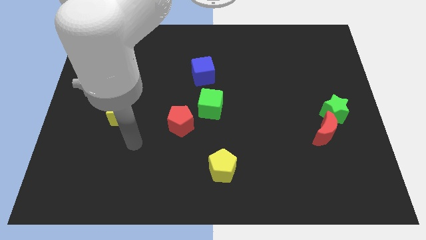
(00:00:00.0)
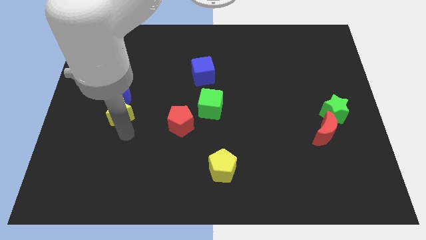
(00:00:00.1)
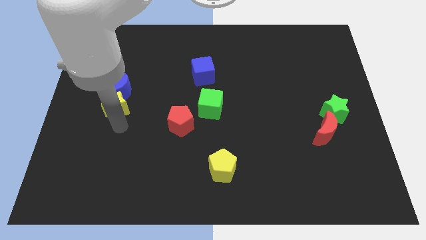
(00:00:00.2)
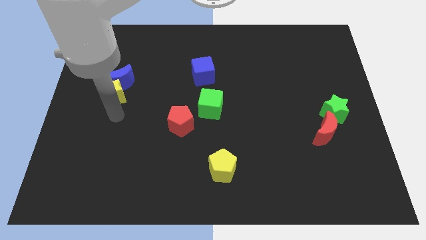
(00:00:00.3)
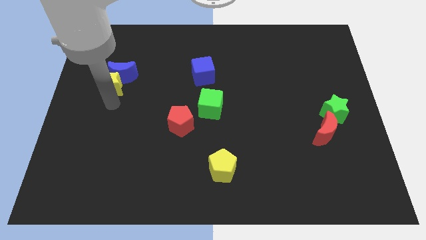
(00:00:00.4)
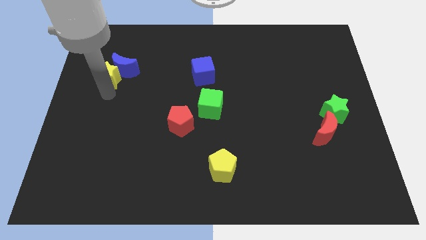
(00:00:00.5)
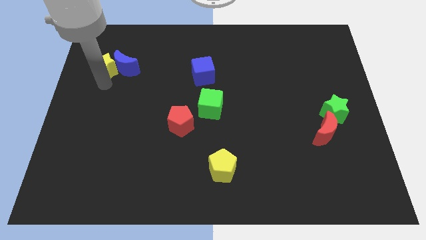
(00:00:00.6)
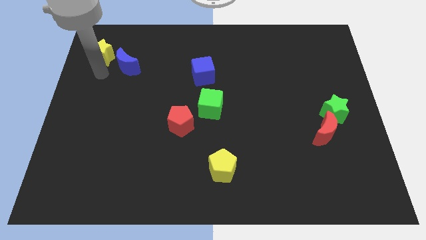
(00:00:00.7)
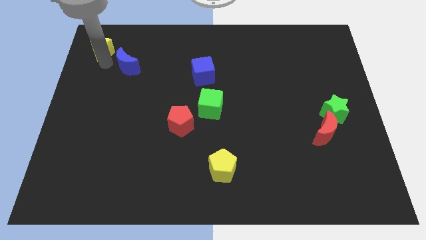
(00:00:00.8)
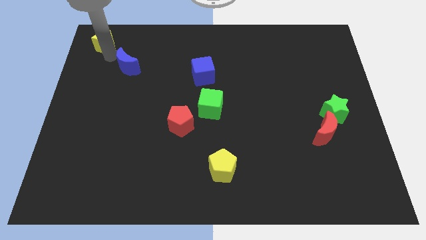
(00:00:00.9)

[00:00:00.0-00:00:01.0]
pull the blue moon apart from the yellow star

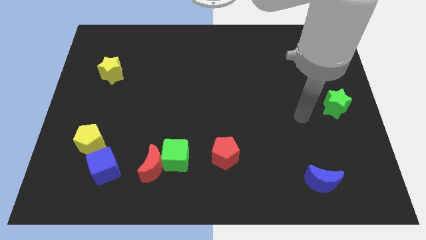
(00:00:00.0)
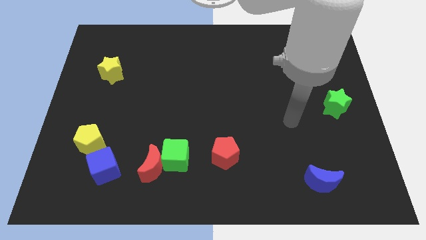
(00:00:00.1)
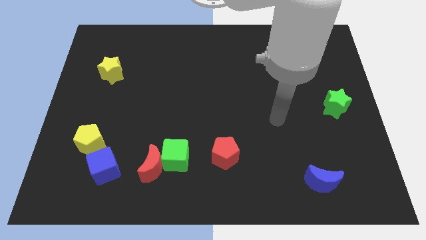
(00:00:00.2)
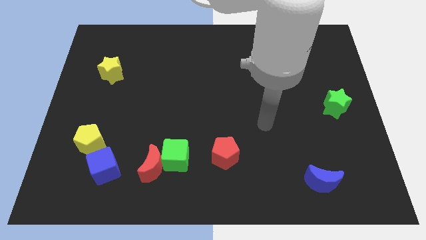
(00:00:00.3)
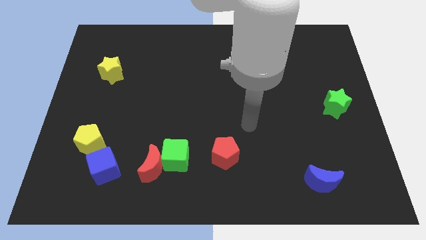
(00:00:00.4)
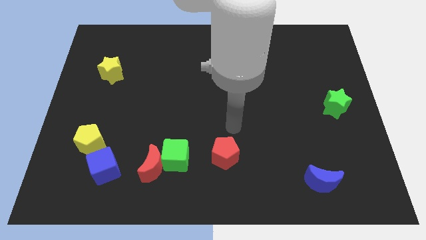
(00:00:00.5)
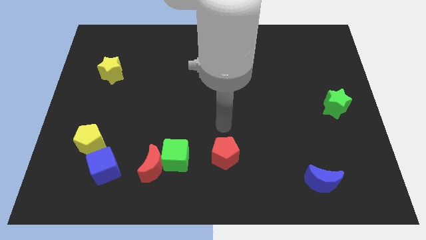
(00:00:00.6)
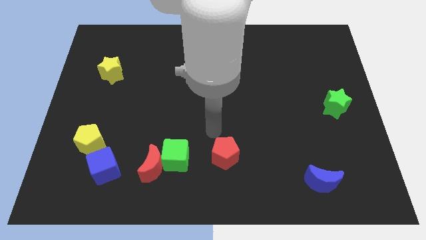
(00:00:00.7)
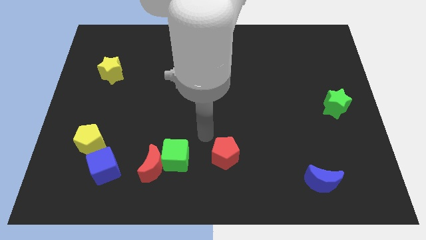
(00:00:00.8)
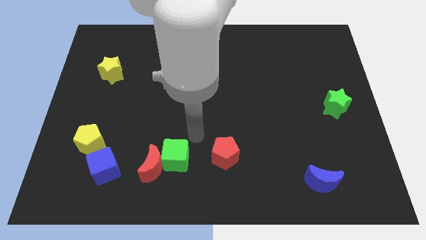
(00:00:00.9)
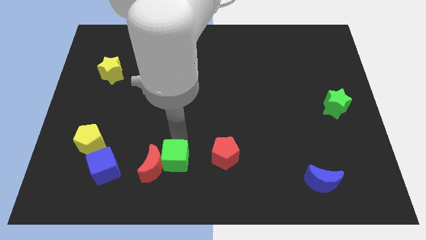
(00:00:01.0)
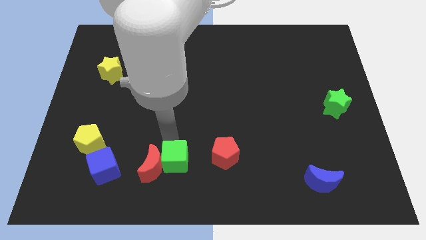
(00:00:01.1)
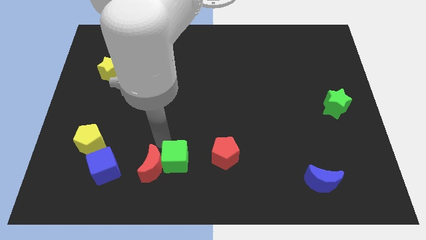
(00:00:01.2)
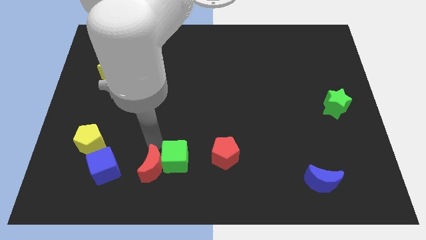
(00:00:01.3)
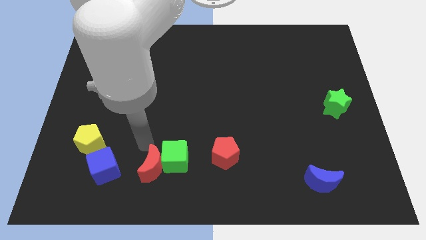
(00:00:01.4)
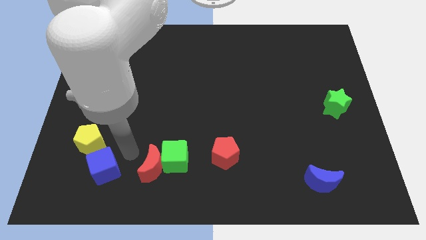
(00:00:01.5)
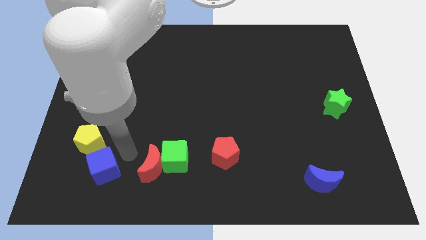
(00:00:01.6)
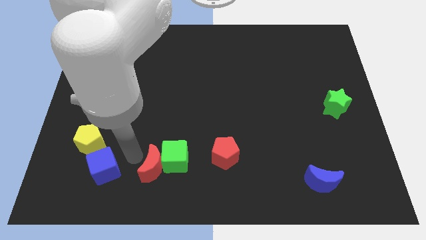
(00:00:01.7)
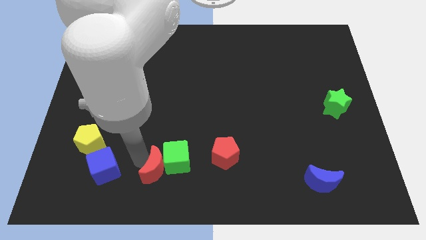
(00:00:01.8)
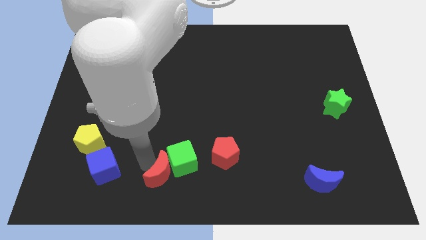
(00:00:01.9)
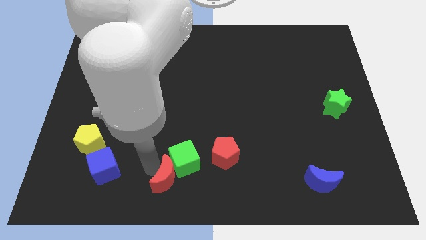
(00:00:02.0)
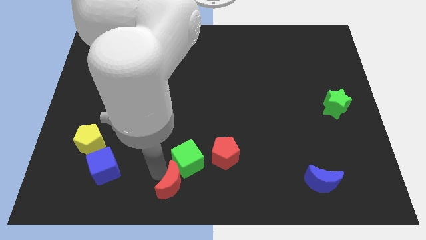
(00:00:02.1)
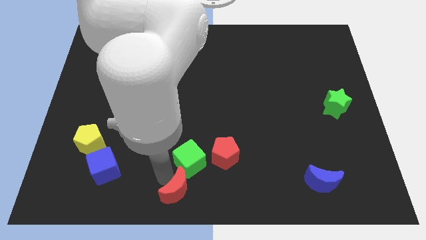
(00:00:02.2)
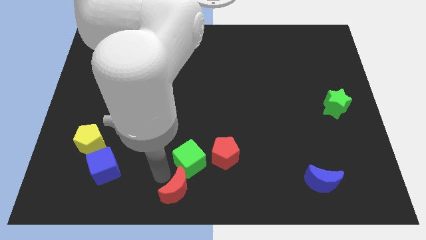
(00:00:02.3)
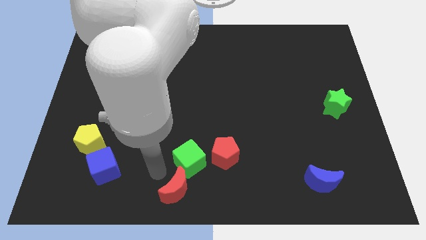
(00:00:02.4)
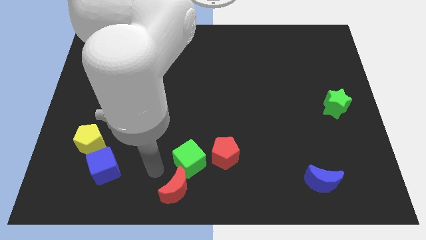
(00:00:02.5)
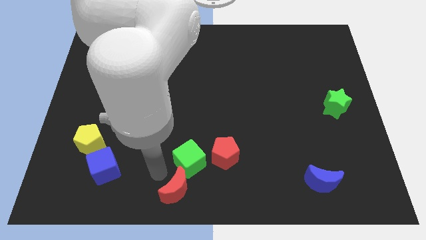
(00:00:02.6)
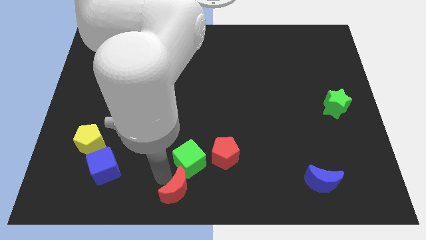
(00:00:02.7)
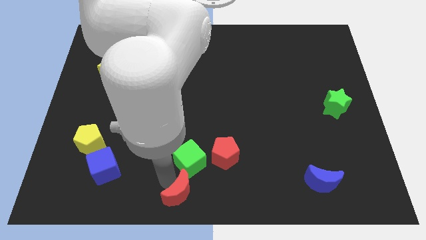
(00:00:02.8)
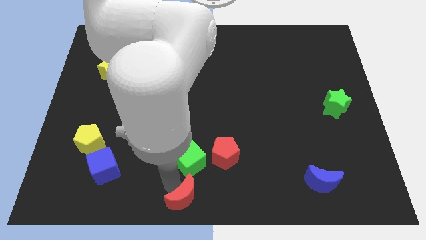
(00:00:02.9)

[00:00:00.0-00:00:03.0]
separate the red moon from the green cube and blue cube

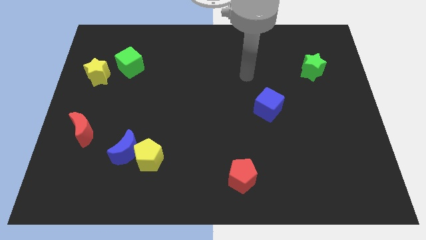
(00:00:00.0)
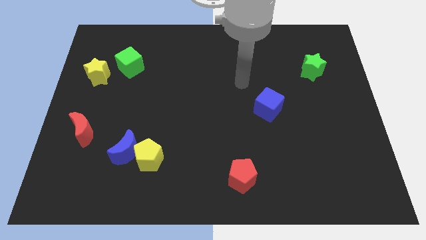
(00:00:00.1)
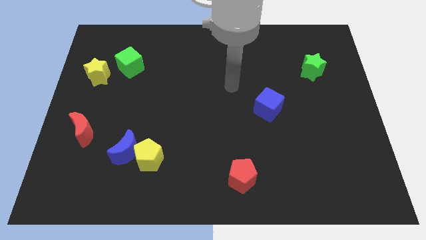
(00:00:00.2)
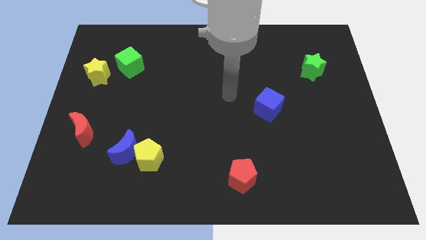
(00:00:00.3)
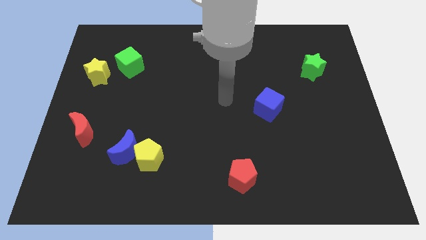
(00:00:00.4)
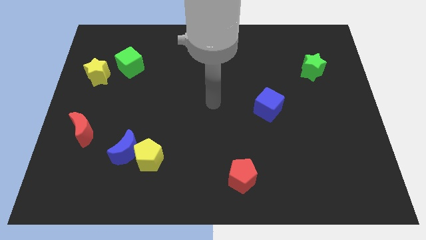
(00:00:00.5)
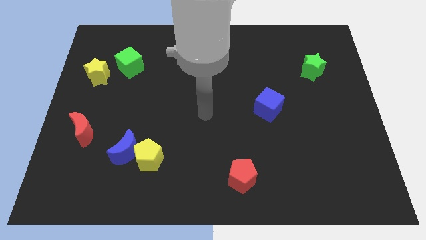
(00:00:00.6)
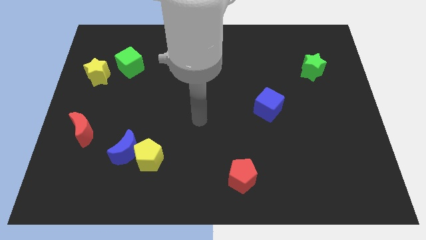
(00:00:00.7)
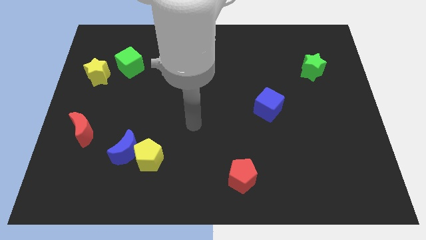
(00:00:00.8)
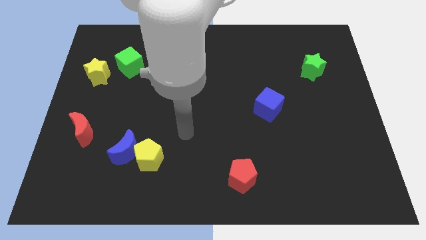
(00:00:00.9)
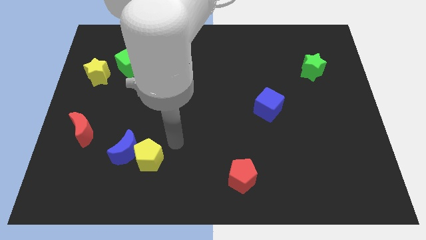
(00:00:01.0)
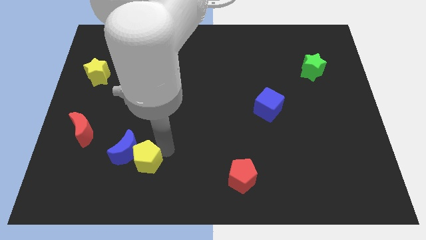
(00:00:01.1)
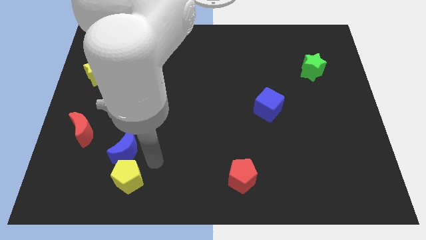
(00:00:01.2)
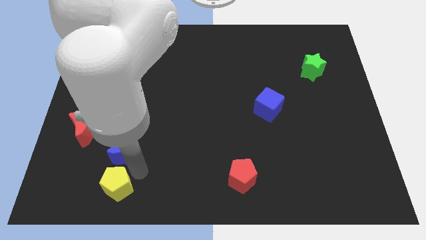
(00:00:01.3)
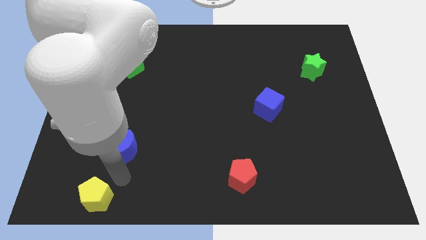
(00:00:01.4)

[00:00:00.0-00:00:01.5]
separate the blue moon from the yellow pentagon

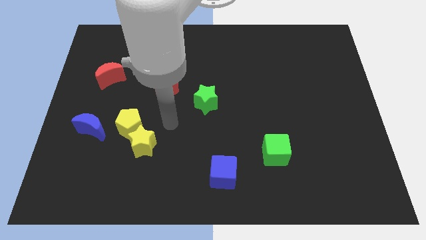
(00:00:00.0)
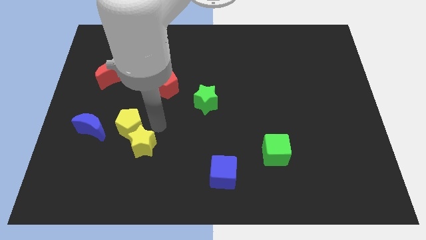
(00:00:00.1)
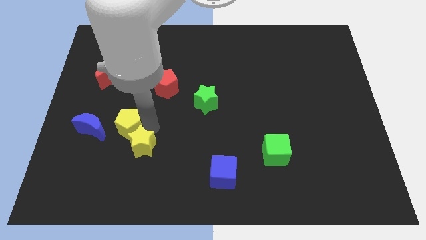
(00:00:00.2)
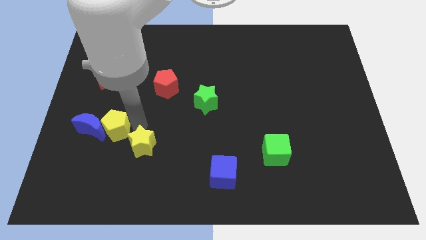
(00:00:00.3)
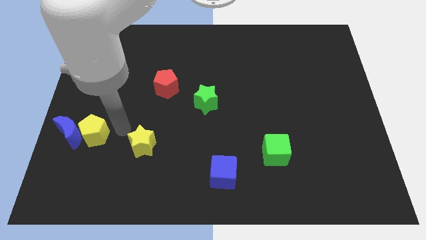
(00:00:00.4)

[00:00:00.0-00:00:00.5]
separate the yellow star from the yellow pentagon

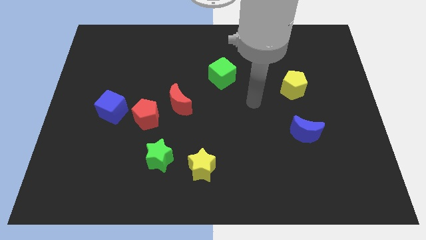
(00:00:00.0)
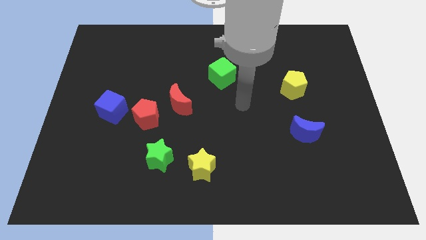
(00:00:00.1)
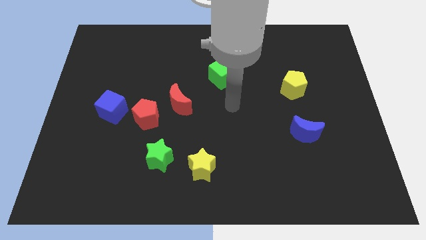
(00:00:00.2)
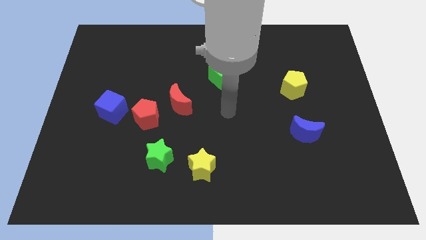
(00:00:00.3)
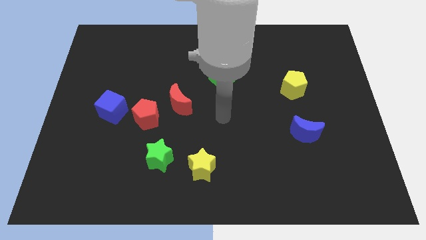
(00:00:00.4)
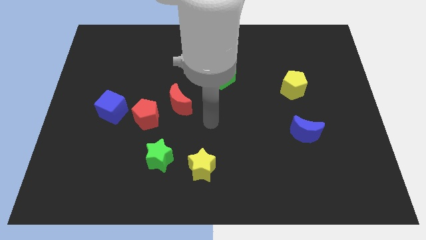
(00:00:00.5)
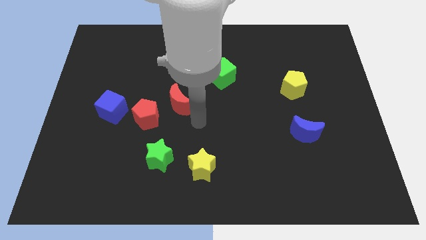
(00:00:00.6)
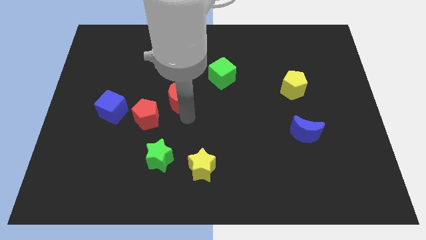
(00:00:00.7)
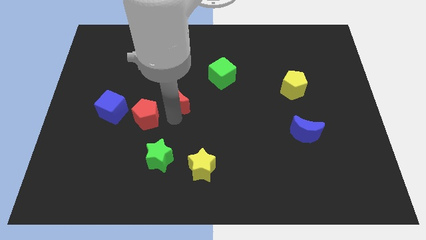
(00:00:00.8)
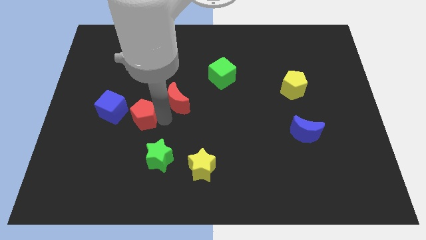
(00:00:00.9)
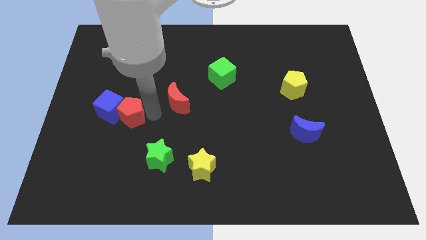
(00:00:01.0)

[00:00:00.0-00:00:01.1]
pull the red moon apart from the red pentagon

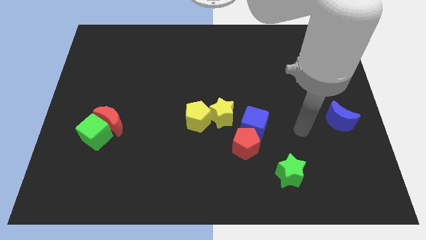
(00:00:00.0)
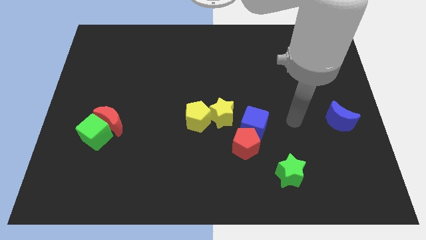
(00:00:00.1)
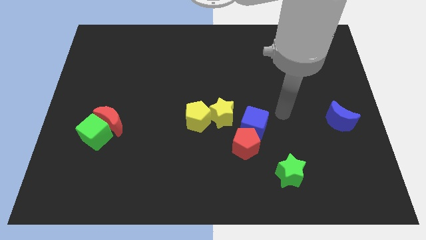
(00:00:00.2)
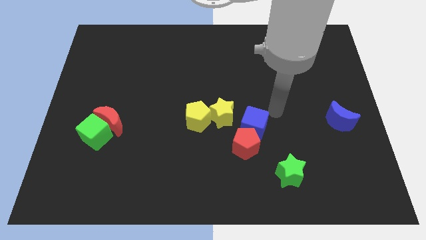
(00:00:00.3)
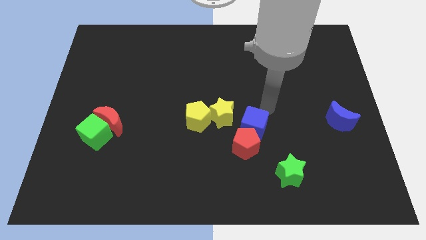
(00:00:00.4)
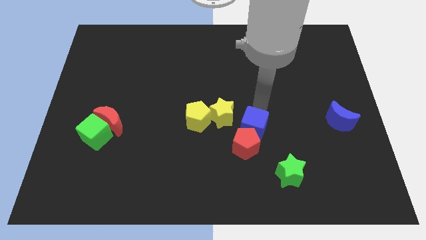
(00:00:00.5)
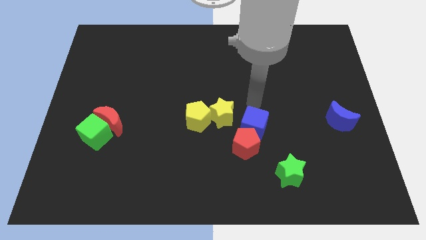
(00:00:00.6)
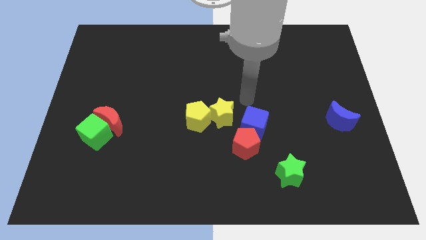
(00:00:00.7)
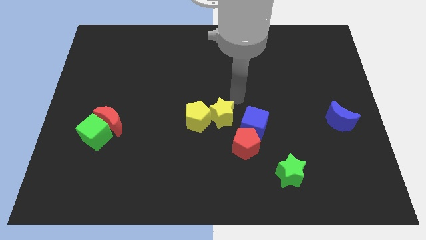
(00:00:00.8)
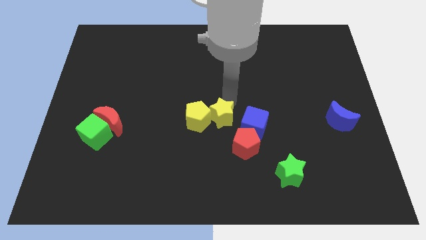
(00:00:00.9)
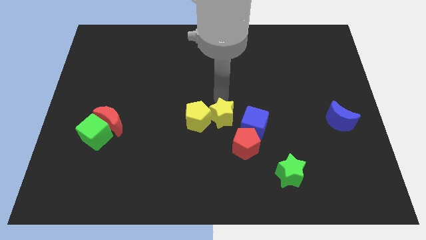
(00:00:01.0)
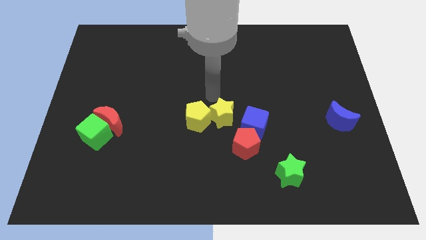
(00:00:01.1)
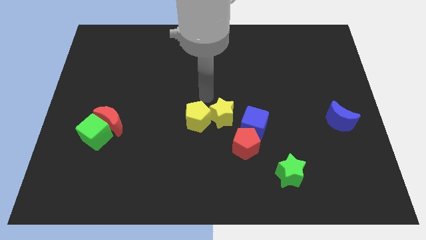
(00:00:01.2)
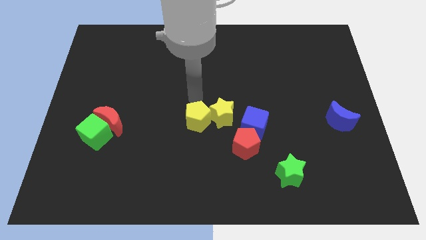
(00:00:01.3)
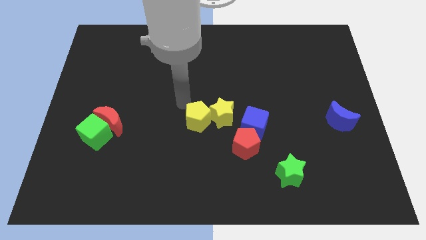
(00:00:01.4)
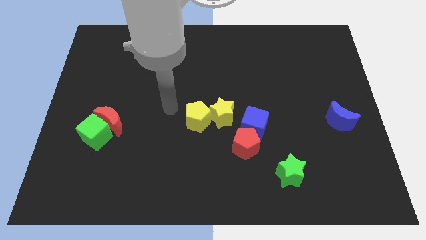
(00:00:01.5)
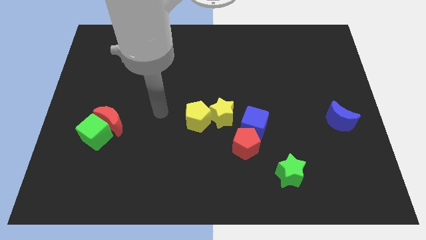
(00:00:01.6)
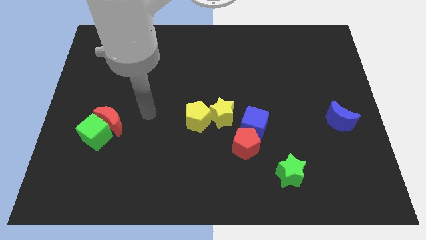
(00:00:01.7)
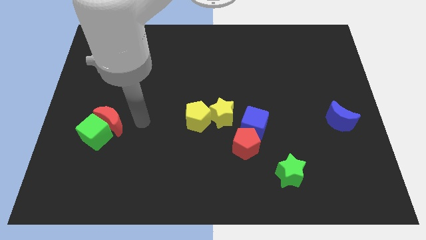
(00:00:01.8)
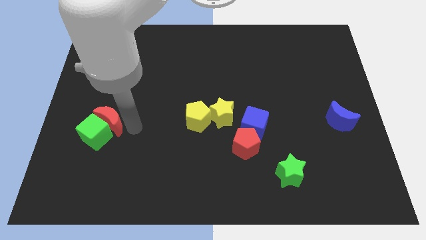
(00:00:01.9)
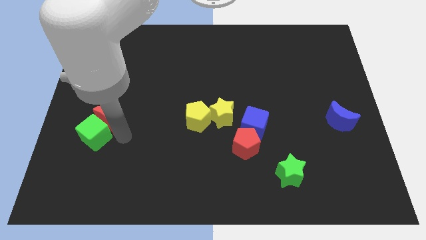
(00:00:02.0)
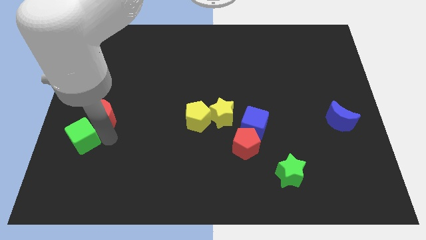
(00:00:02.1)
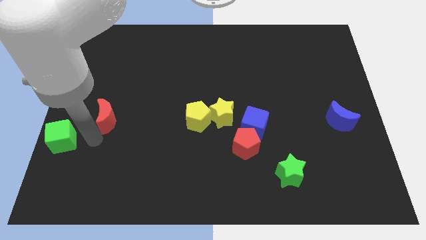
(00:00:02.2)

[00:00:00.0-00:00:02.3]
separate the red moon from the green cube

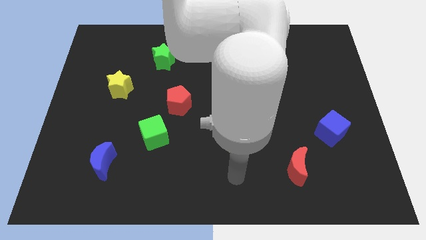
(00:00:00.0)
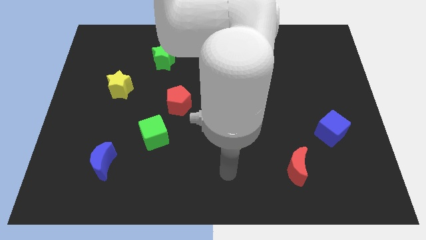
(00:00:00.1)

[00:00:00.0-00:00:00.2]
pull the red pentagon apart from the green cube
